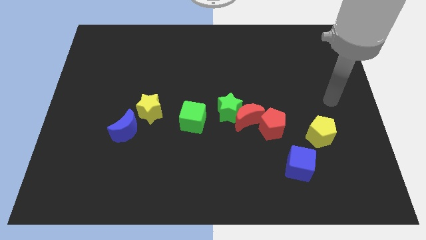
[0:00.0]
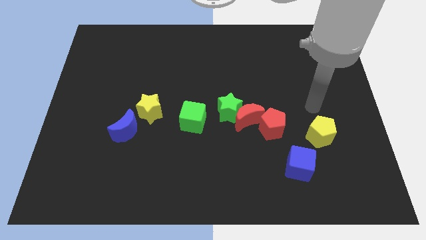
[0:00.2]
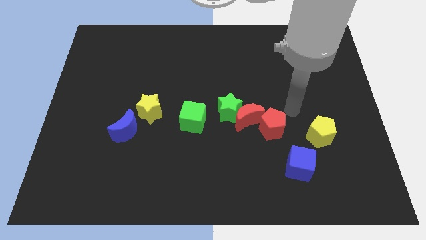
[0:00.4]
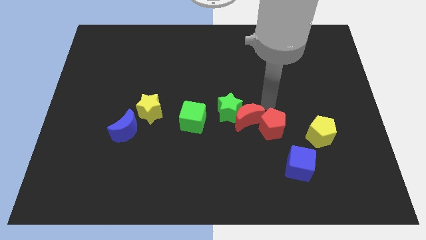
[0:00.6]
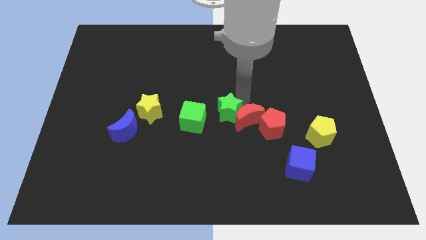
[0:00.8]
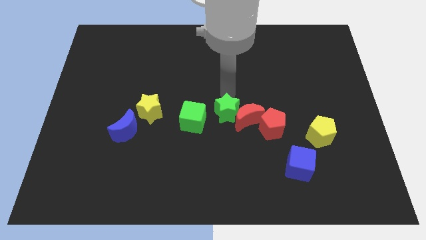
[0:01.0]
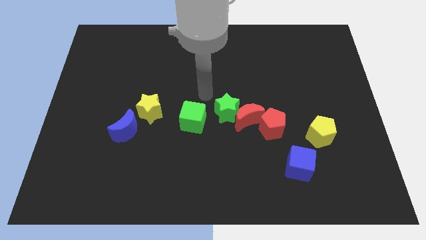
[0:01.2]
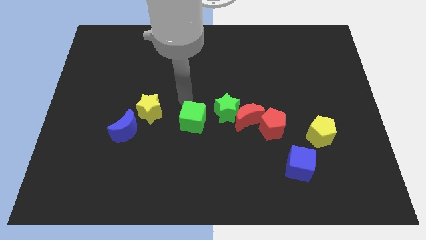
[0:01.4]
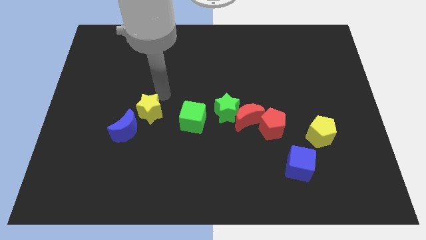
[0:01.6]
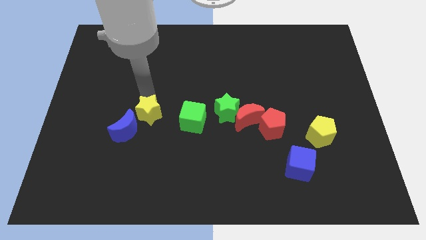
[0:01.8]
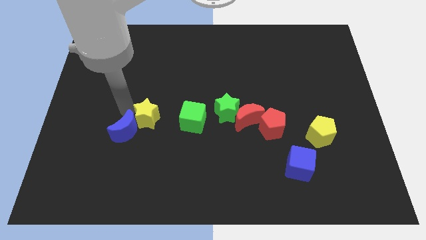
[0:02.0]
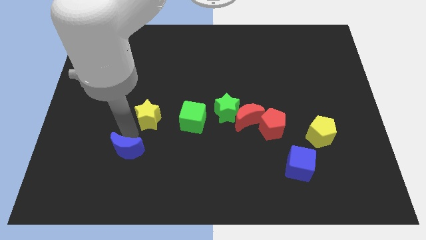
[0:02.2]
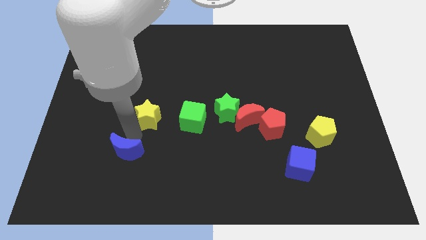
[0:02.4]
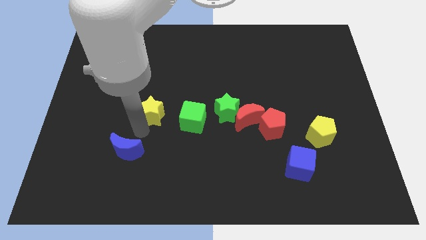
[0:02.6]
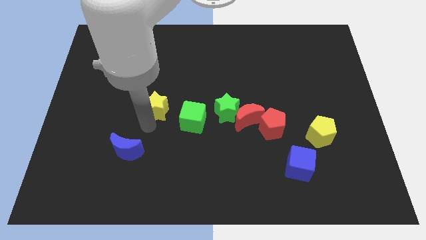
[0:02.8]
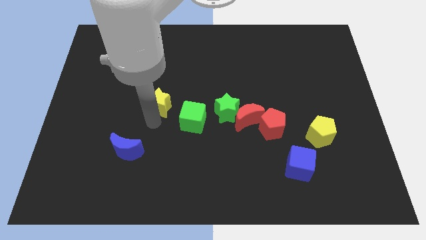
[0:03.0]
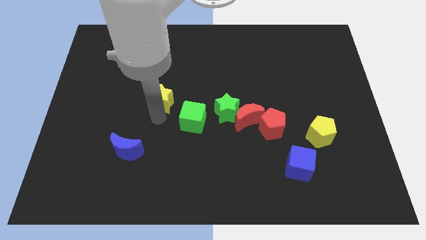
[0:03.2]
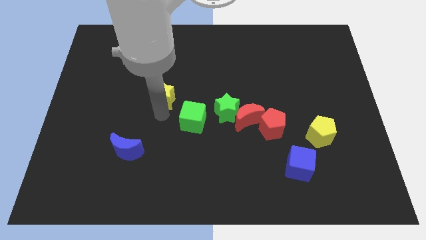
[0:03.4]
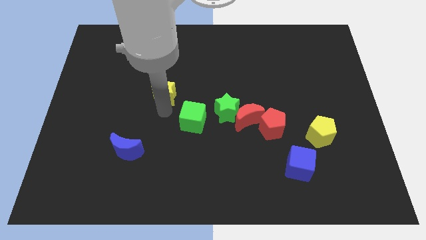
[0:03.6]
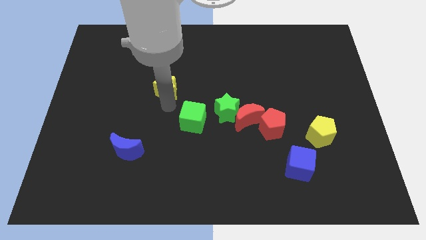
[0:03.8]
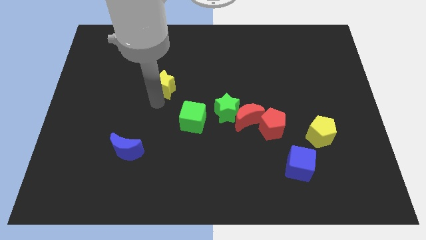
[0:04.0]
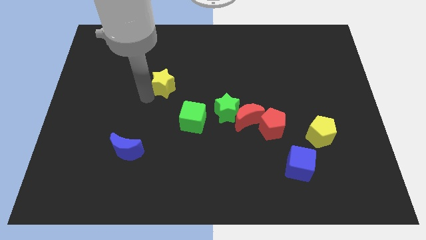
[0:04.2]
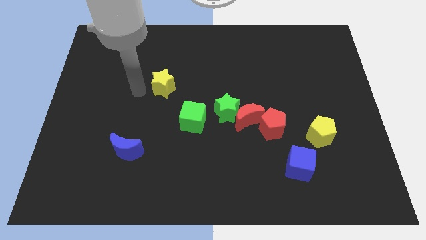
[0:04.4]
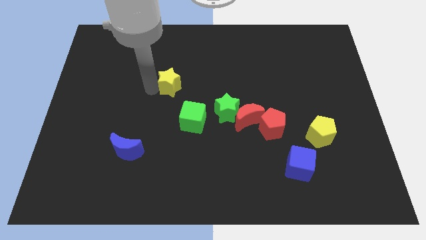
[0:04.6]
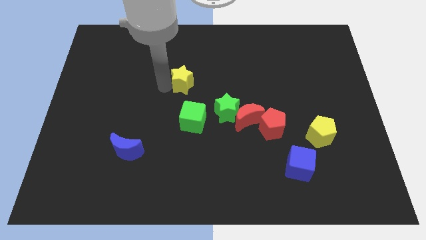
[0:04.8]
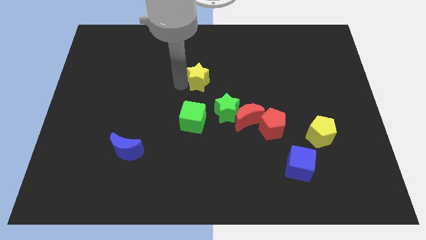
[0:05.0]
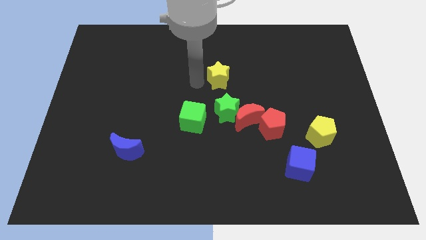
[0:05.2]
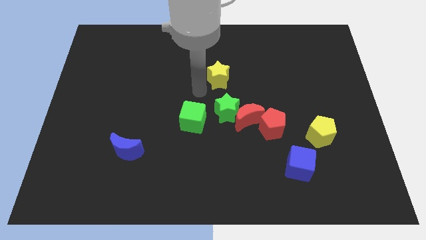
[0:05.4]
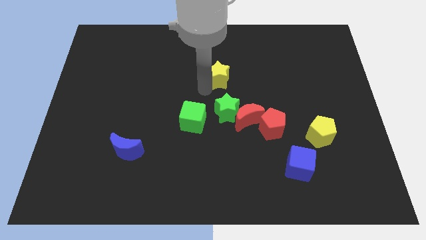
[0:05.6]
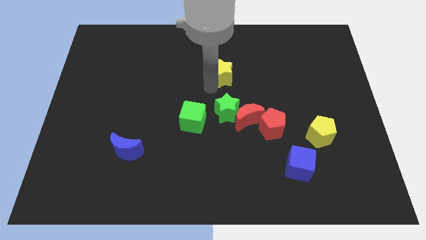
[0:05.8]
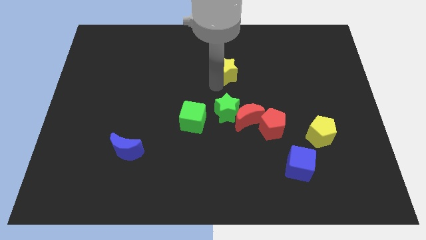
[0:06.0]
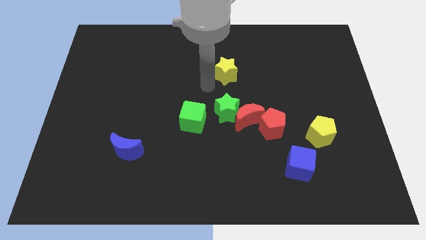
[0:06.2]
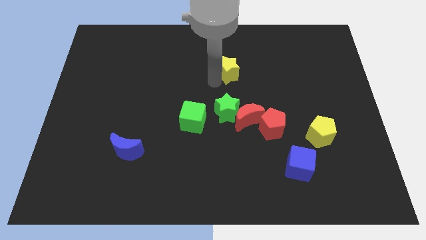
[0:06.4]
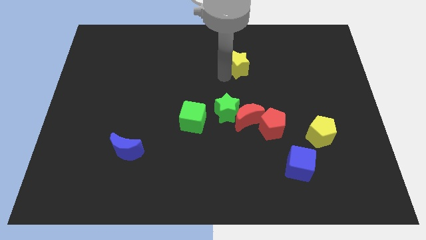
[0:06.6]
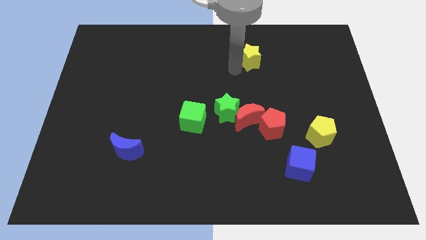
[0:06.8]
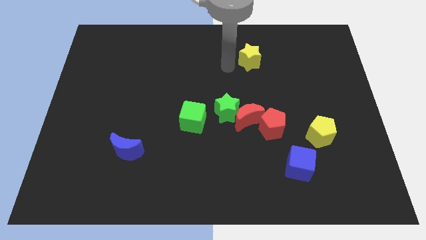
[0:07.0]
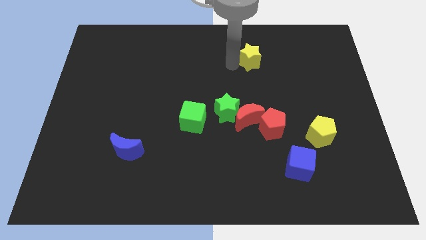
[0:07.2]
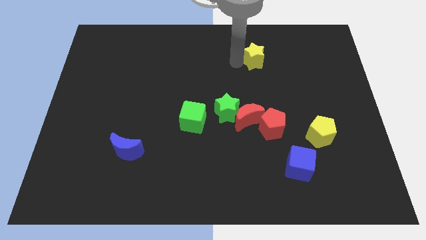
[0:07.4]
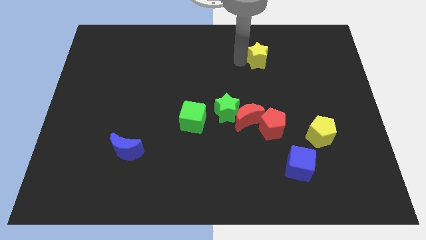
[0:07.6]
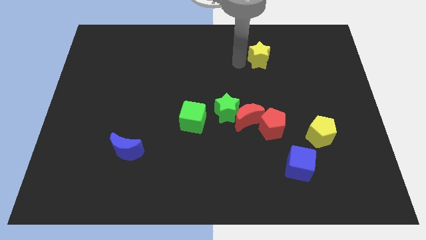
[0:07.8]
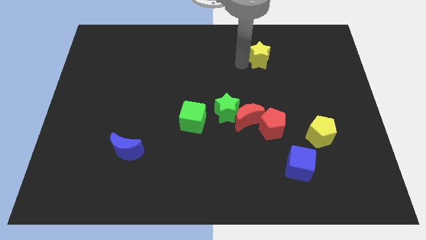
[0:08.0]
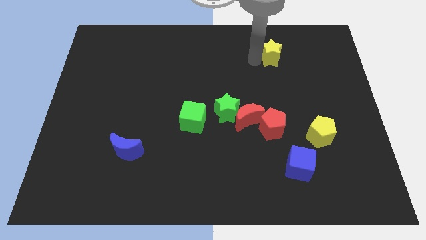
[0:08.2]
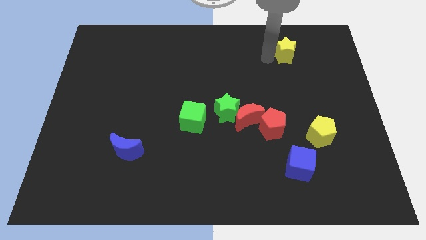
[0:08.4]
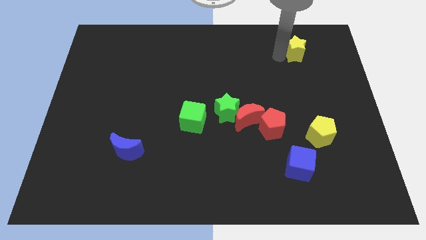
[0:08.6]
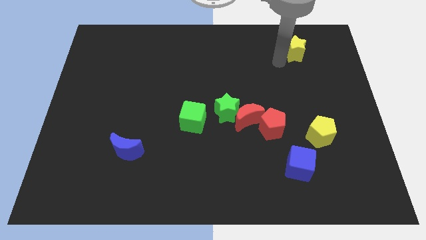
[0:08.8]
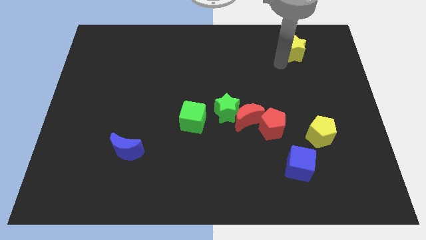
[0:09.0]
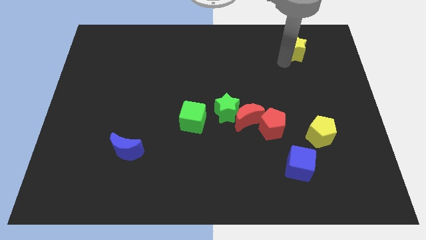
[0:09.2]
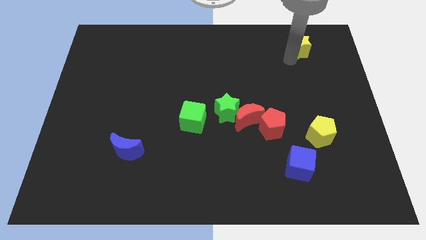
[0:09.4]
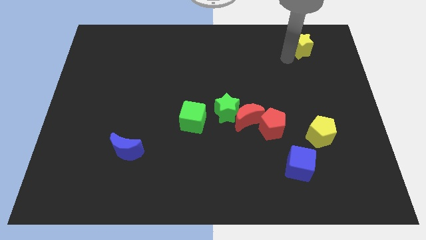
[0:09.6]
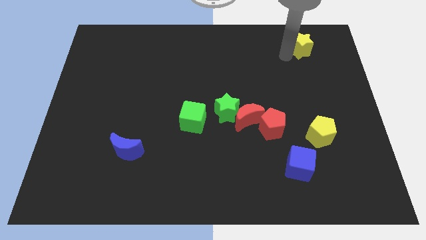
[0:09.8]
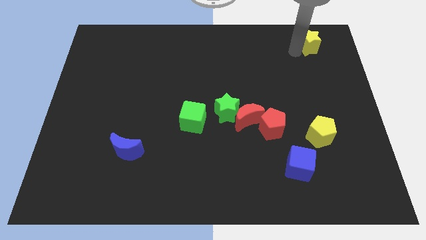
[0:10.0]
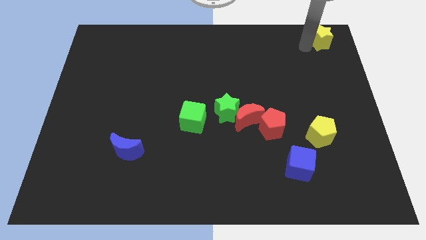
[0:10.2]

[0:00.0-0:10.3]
put the yellow star to the upper right corner
